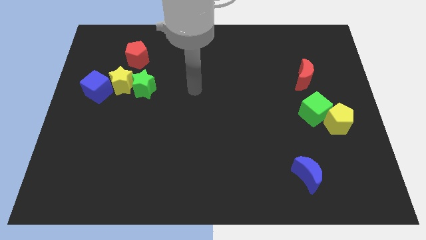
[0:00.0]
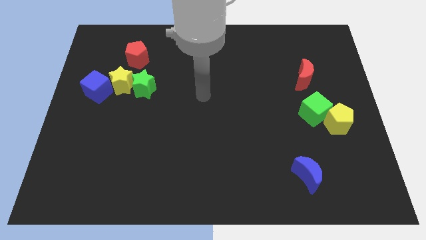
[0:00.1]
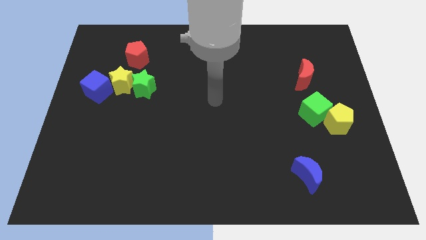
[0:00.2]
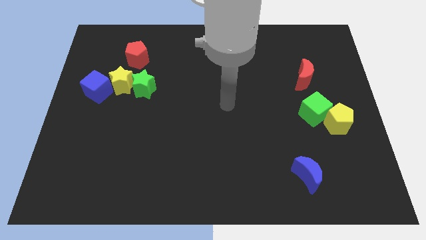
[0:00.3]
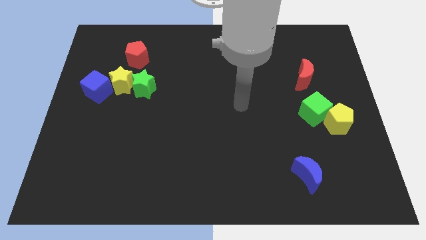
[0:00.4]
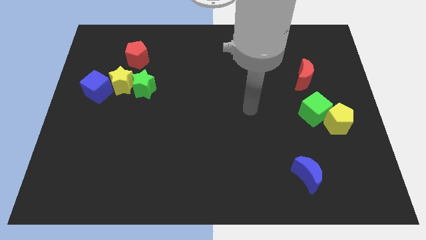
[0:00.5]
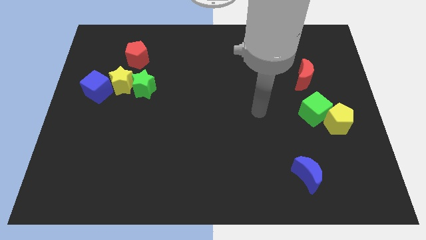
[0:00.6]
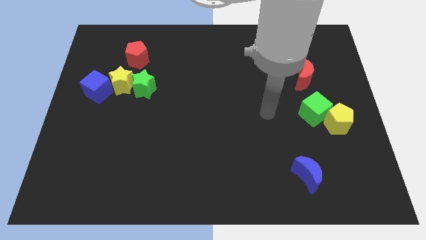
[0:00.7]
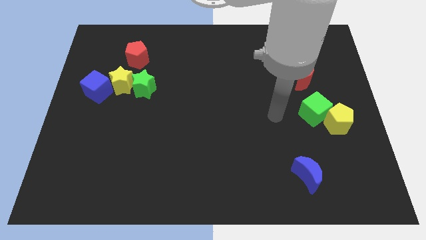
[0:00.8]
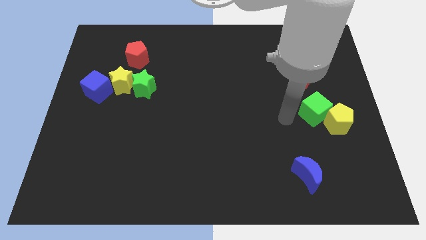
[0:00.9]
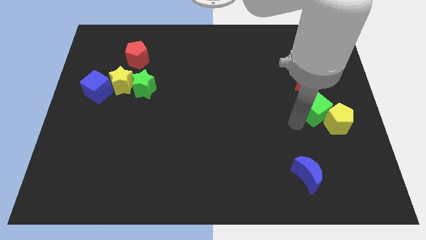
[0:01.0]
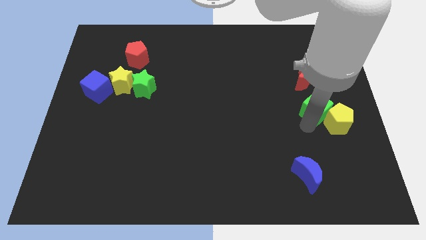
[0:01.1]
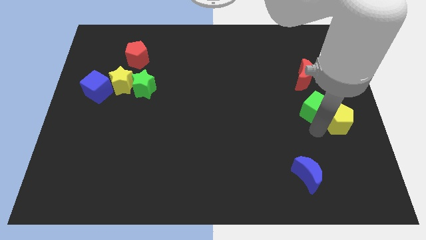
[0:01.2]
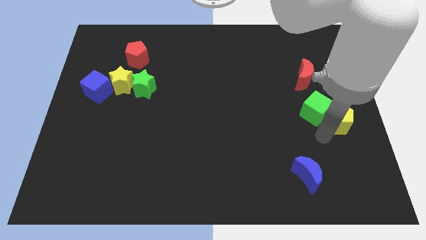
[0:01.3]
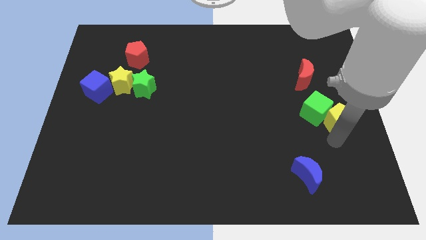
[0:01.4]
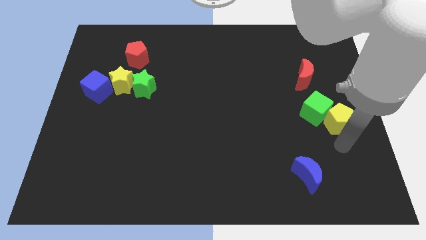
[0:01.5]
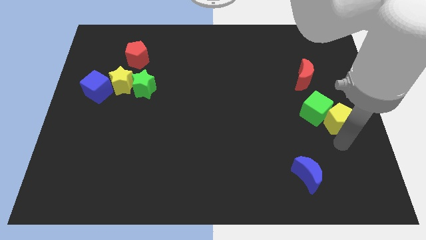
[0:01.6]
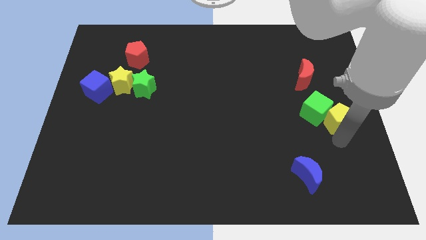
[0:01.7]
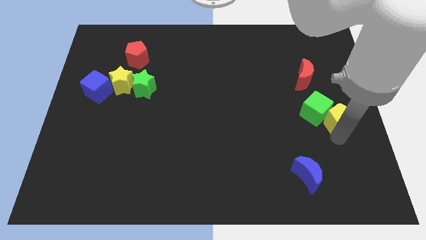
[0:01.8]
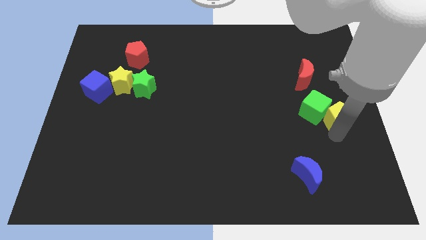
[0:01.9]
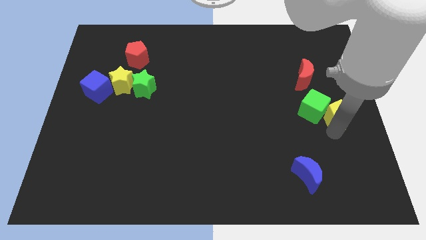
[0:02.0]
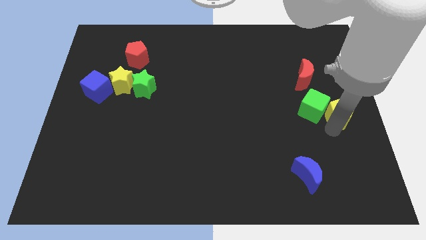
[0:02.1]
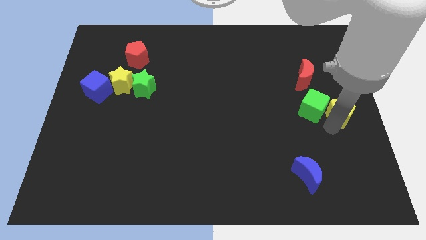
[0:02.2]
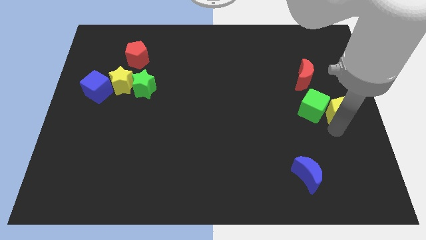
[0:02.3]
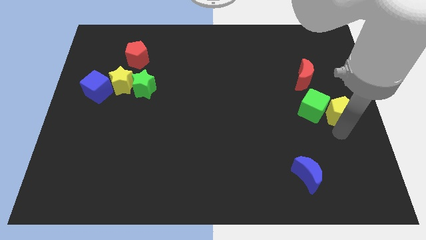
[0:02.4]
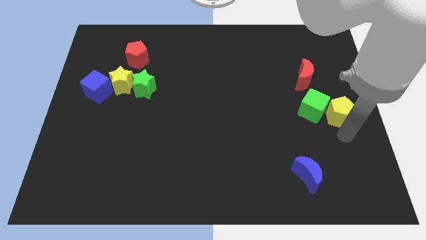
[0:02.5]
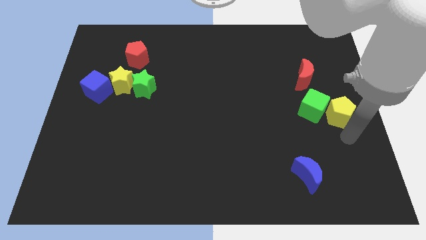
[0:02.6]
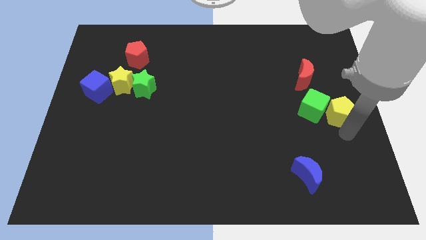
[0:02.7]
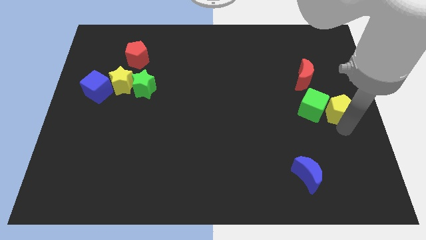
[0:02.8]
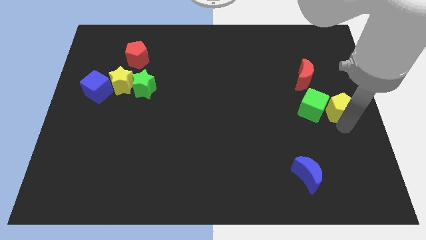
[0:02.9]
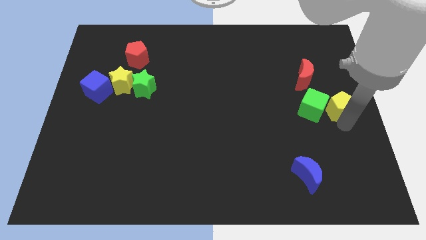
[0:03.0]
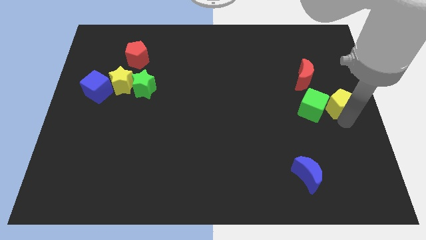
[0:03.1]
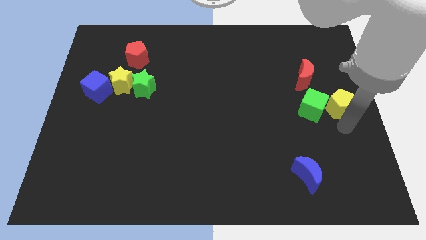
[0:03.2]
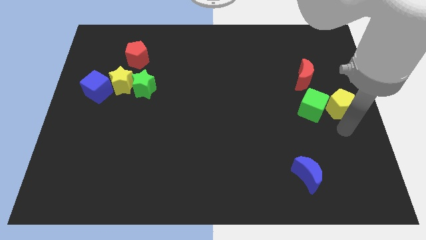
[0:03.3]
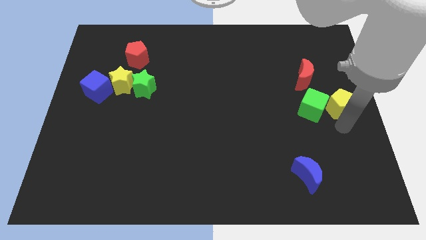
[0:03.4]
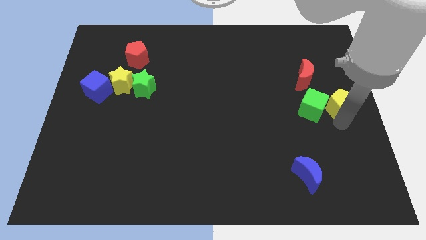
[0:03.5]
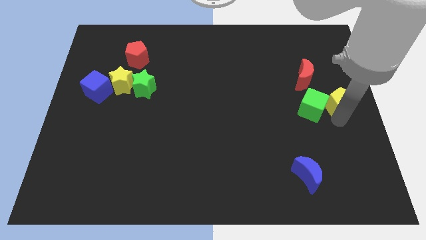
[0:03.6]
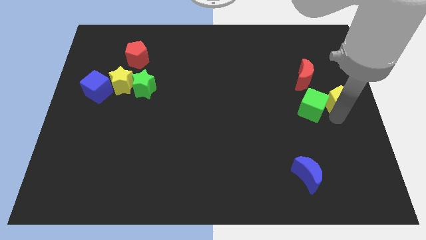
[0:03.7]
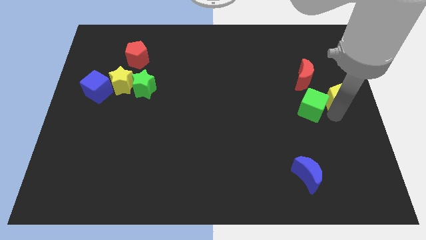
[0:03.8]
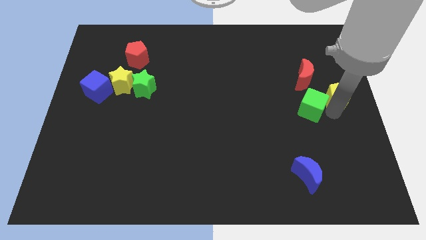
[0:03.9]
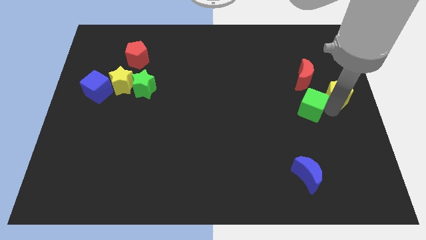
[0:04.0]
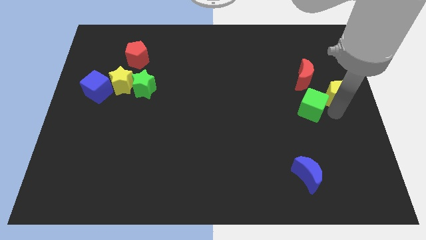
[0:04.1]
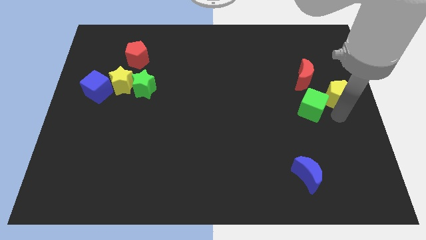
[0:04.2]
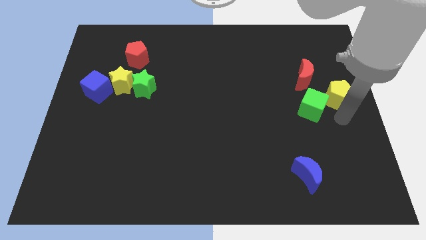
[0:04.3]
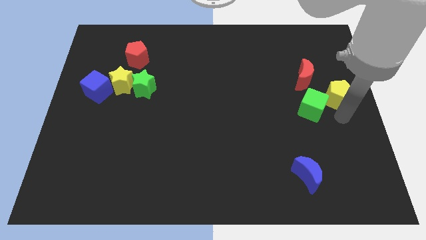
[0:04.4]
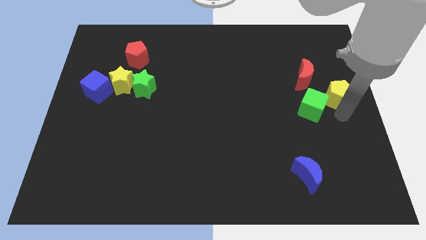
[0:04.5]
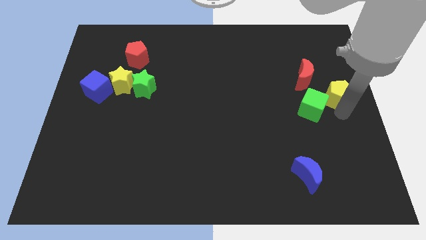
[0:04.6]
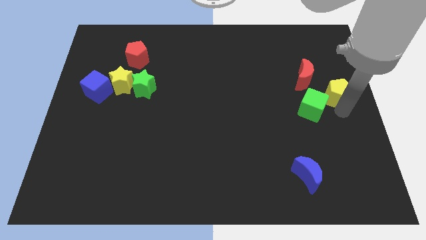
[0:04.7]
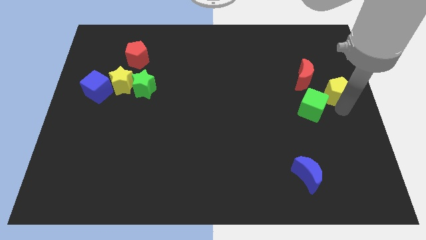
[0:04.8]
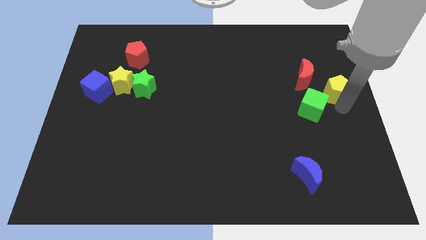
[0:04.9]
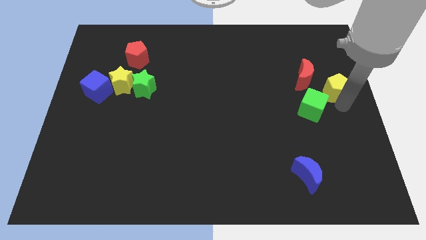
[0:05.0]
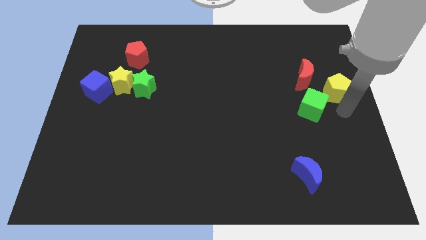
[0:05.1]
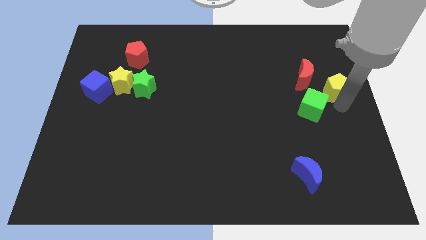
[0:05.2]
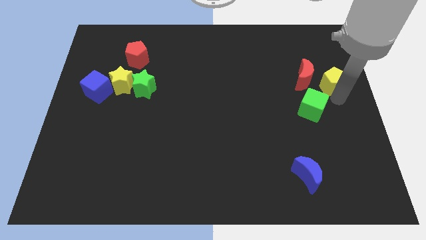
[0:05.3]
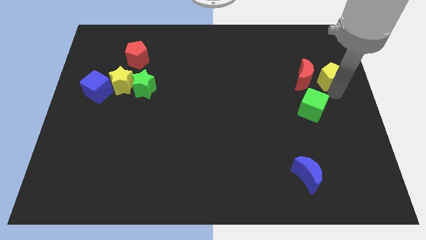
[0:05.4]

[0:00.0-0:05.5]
move the yellow pentagon to the top right side of the red moon

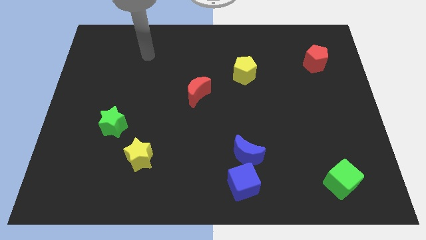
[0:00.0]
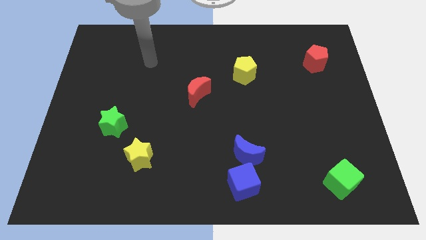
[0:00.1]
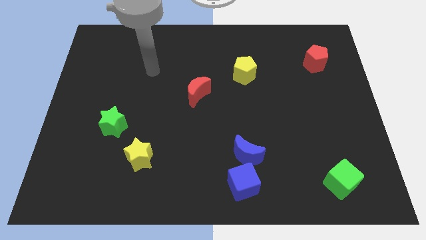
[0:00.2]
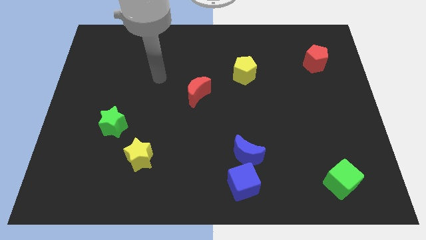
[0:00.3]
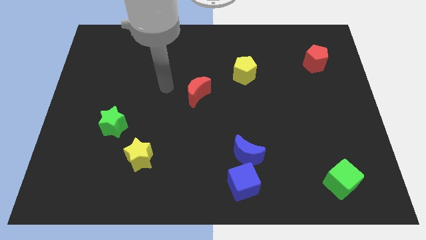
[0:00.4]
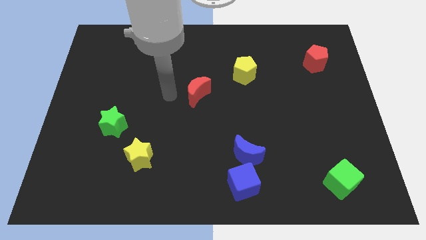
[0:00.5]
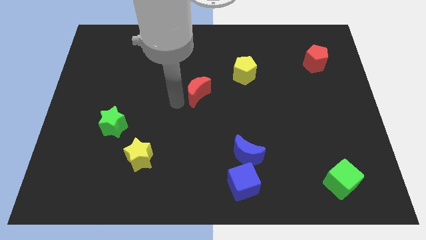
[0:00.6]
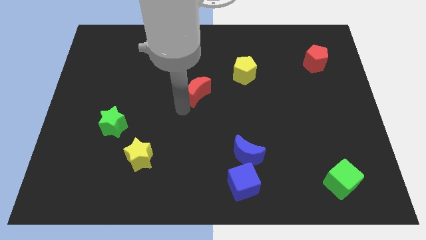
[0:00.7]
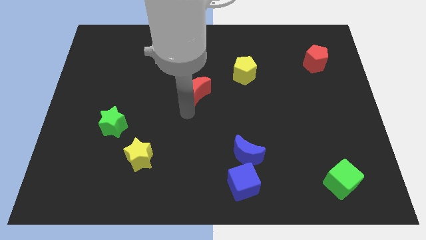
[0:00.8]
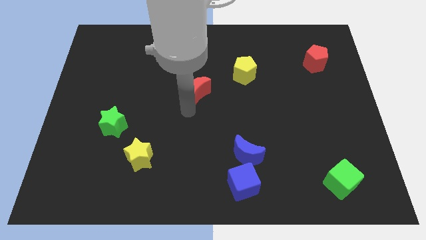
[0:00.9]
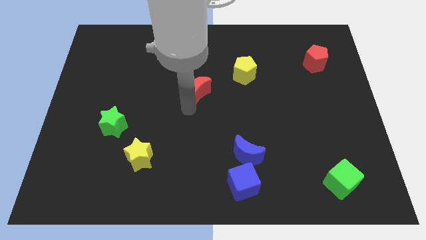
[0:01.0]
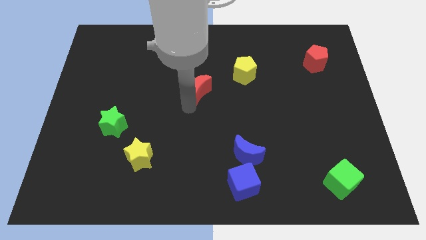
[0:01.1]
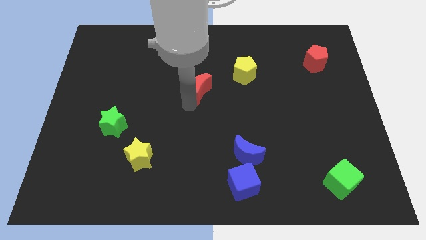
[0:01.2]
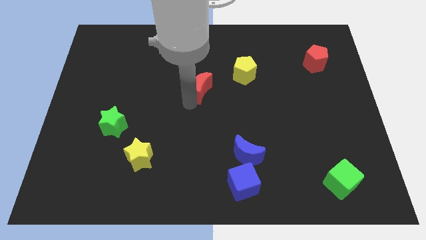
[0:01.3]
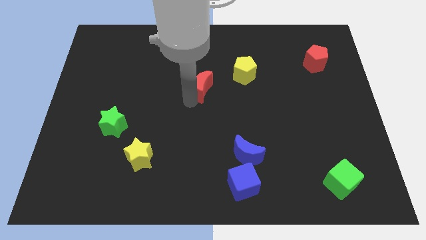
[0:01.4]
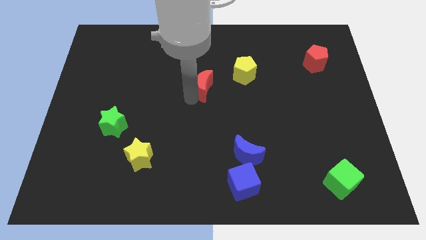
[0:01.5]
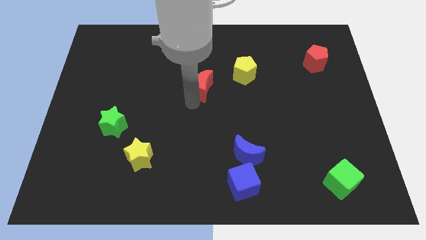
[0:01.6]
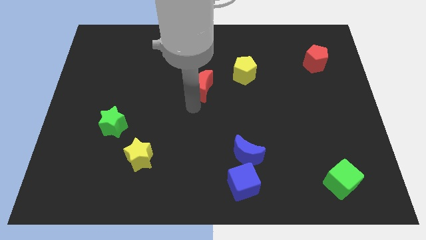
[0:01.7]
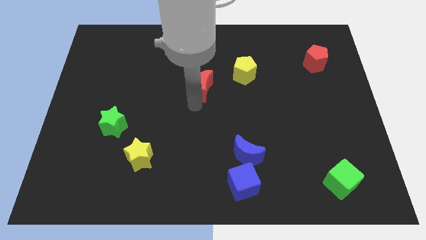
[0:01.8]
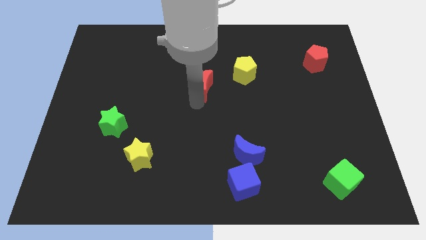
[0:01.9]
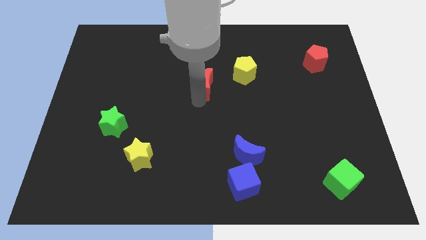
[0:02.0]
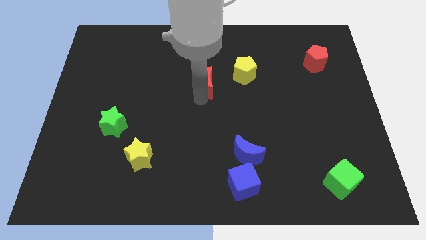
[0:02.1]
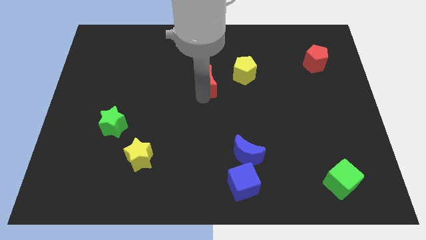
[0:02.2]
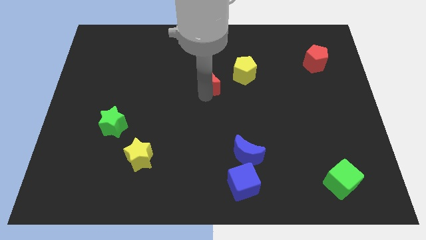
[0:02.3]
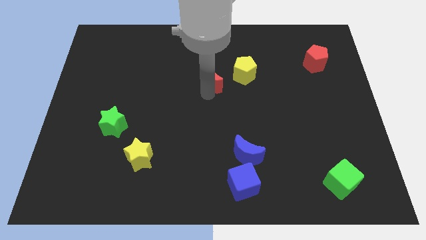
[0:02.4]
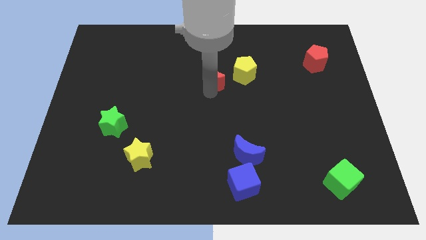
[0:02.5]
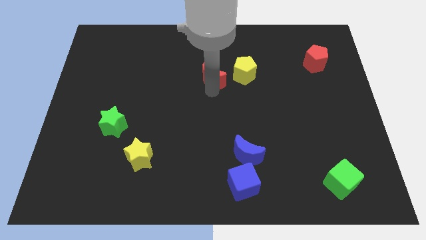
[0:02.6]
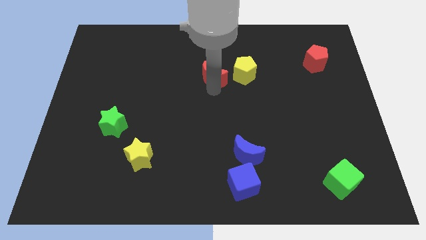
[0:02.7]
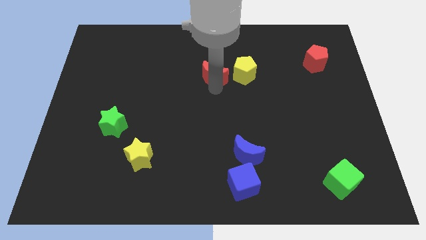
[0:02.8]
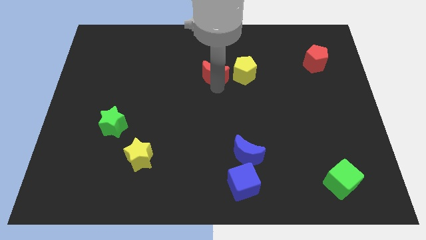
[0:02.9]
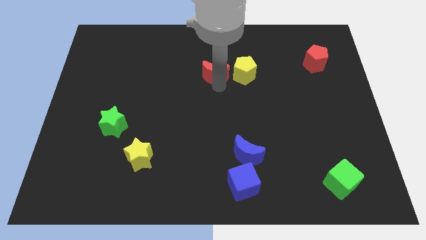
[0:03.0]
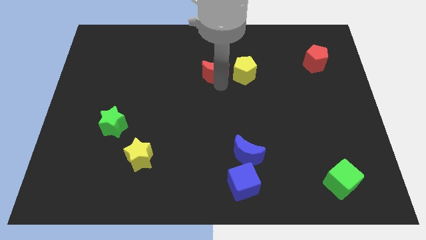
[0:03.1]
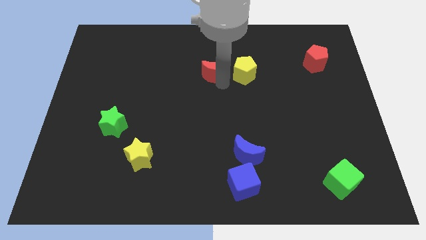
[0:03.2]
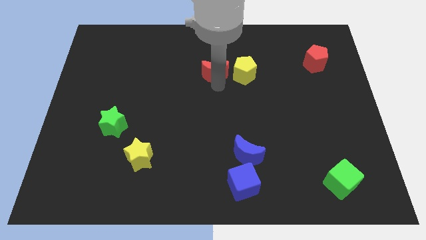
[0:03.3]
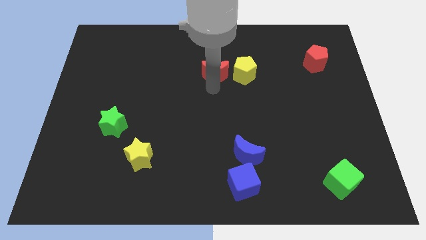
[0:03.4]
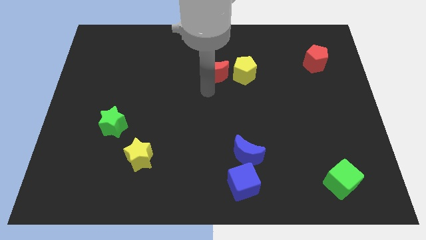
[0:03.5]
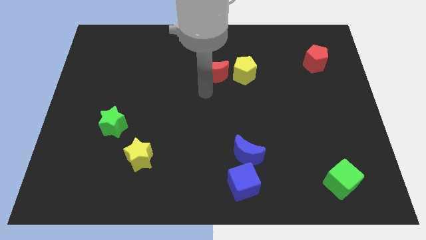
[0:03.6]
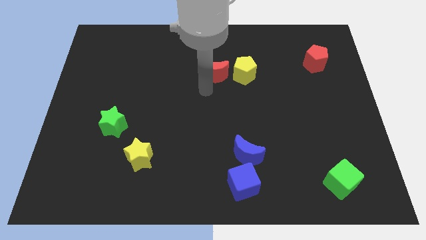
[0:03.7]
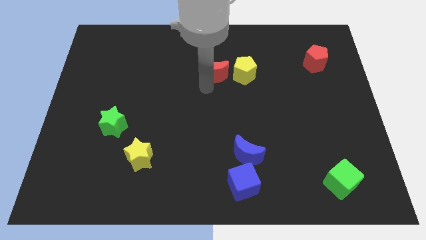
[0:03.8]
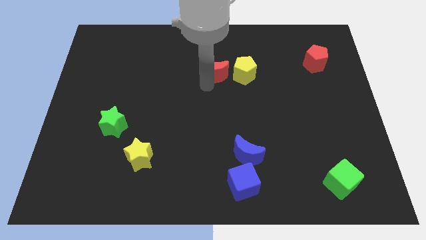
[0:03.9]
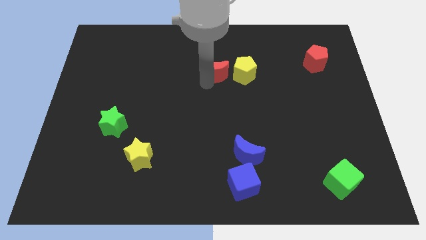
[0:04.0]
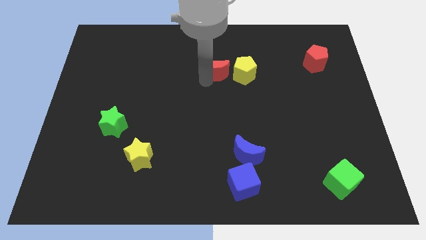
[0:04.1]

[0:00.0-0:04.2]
move the red moon to the top left of the yellow pentagon
